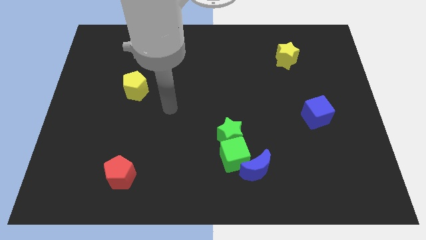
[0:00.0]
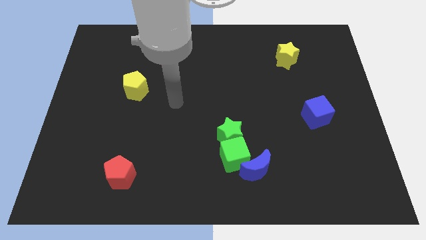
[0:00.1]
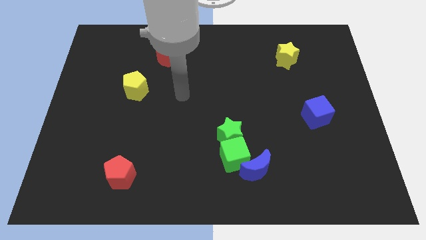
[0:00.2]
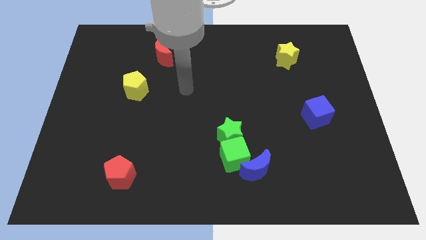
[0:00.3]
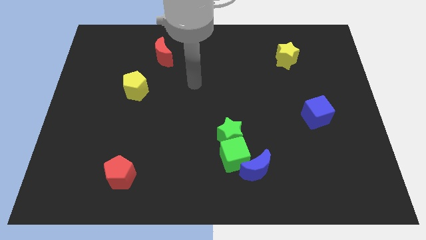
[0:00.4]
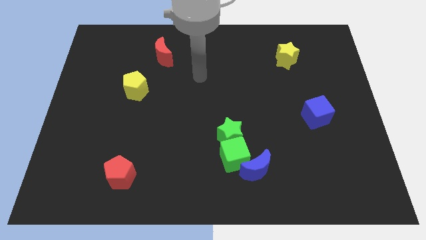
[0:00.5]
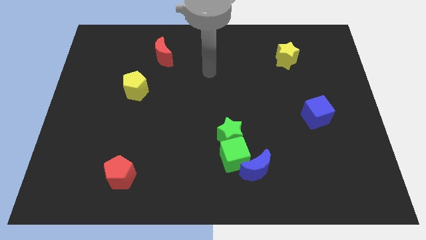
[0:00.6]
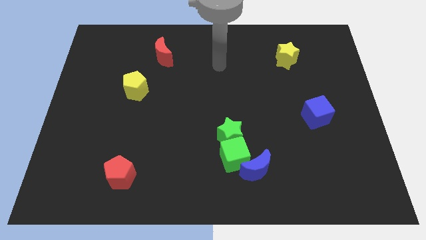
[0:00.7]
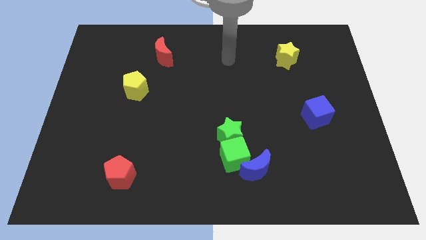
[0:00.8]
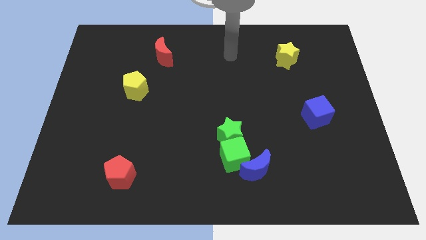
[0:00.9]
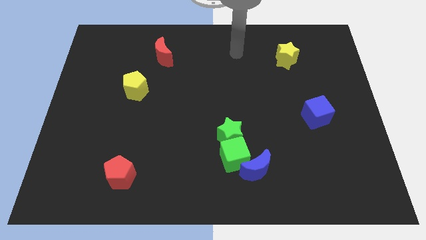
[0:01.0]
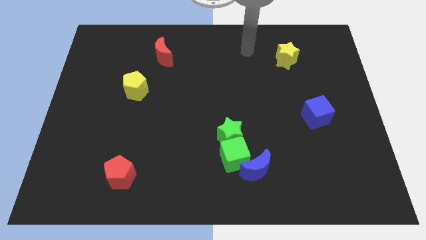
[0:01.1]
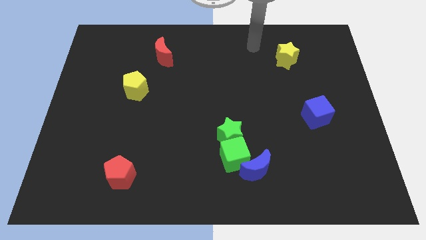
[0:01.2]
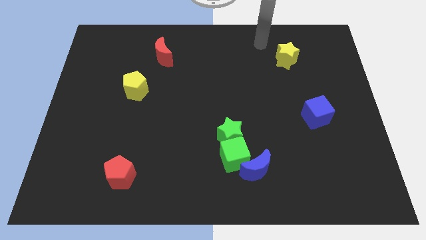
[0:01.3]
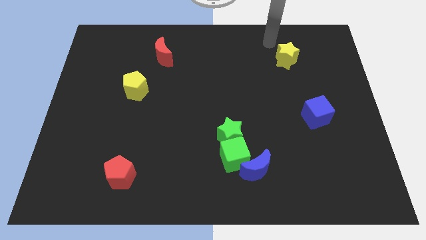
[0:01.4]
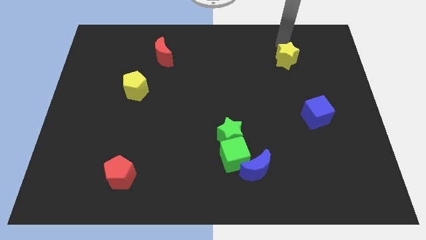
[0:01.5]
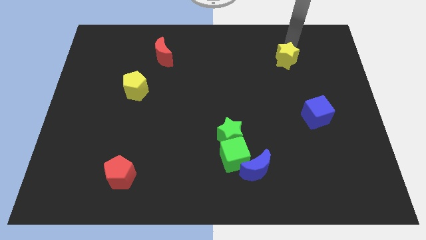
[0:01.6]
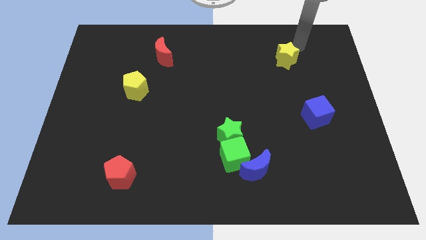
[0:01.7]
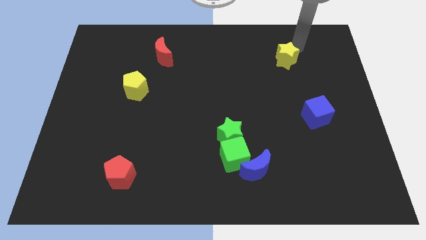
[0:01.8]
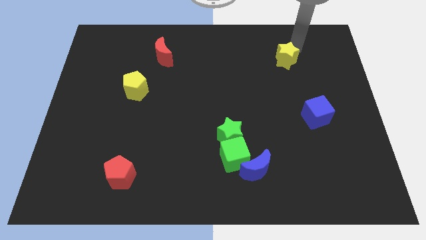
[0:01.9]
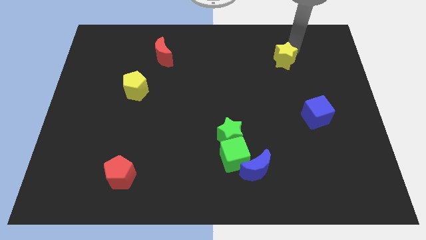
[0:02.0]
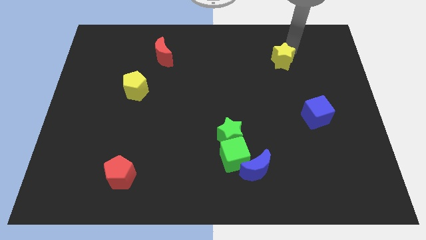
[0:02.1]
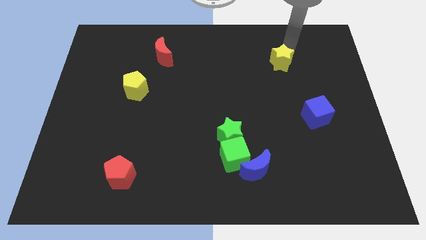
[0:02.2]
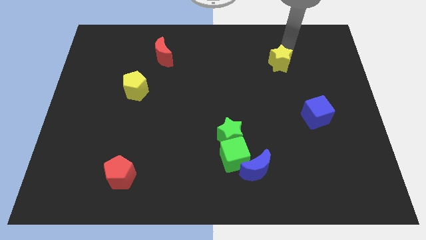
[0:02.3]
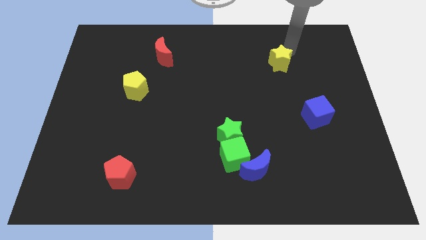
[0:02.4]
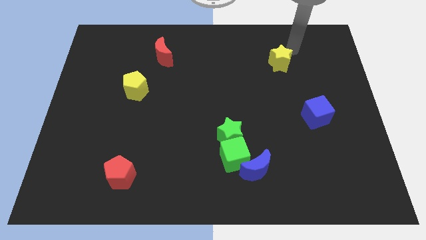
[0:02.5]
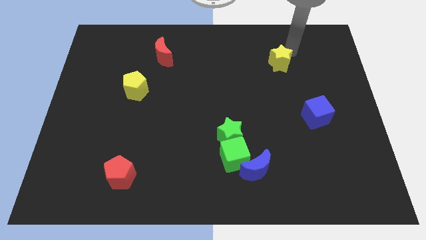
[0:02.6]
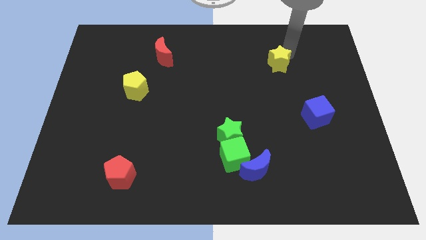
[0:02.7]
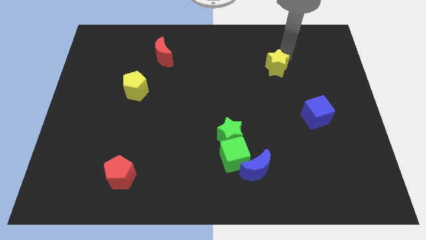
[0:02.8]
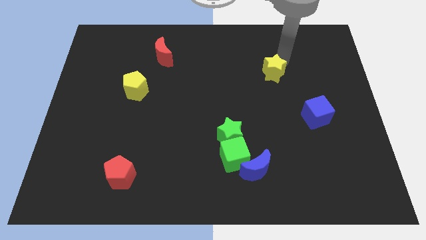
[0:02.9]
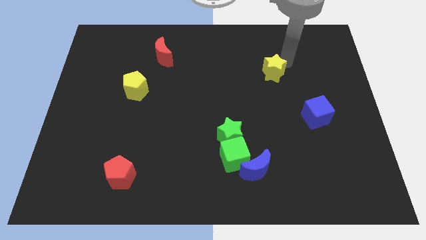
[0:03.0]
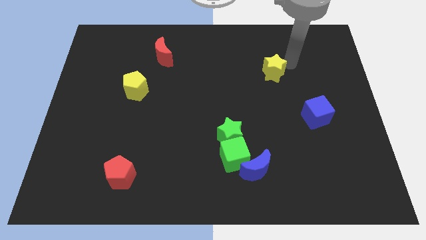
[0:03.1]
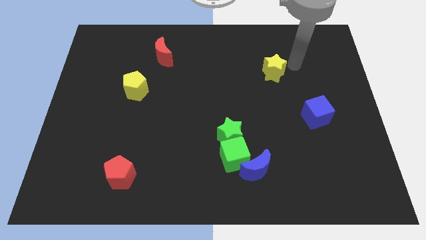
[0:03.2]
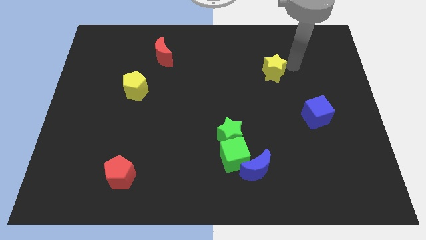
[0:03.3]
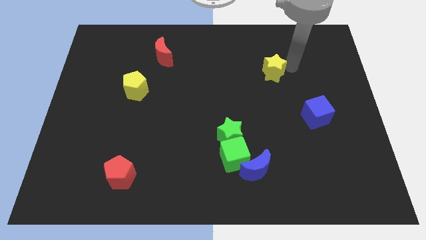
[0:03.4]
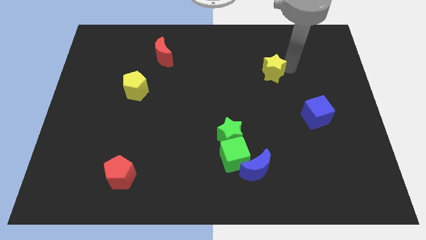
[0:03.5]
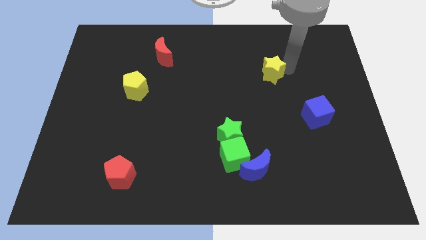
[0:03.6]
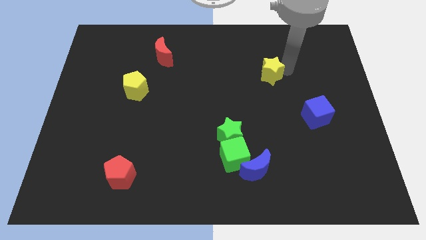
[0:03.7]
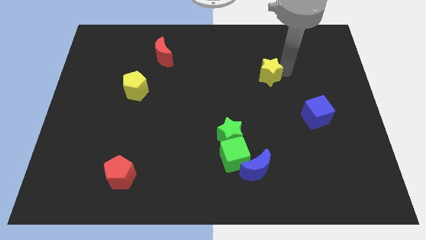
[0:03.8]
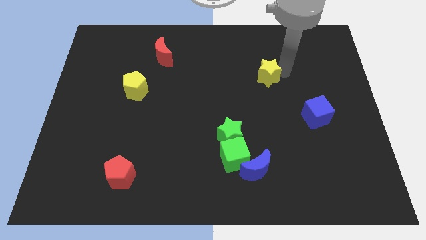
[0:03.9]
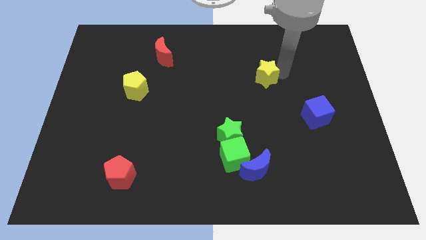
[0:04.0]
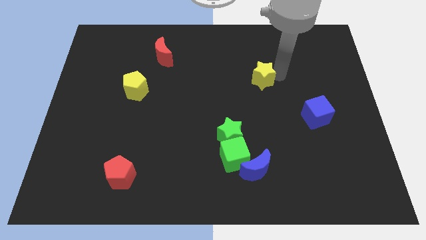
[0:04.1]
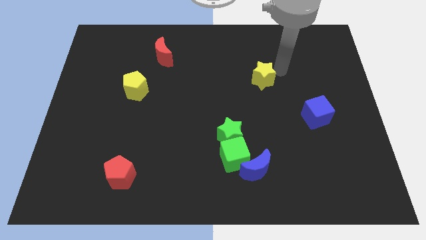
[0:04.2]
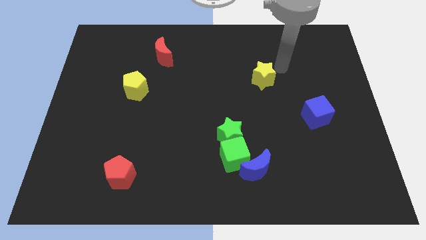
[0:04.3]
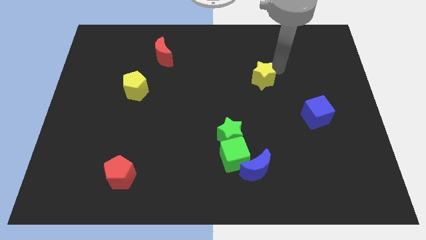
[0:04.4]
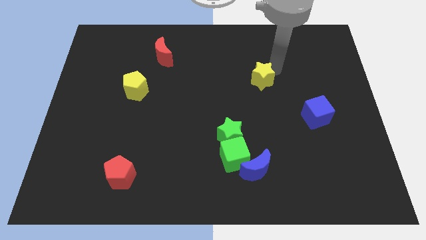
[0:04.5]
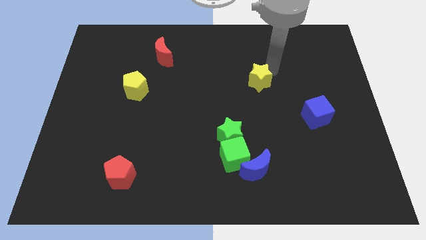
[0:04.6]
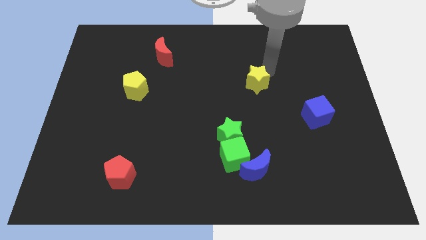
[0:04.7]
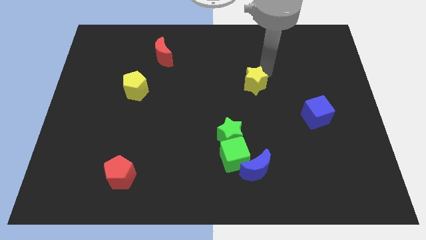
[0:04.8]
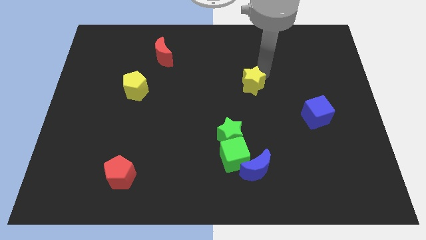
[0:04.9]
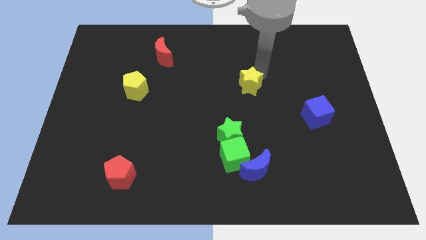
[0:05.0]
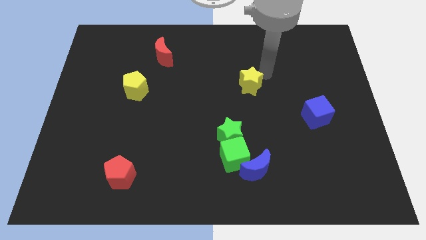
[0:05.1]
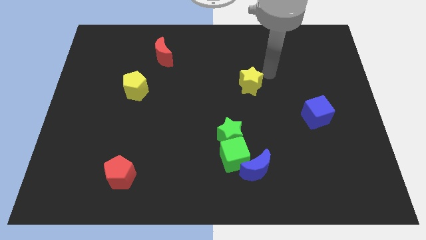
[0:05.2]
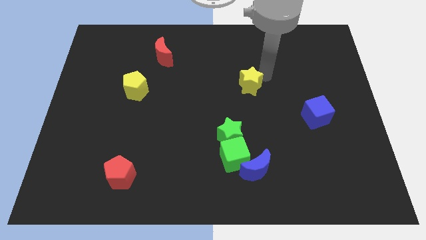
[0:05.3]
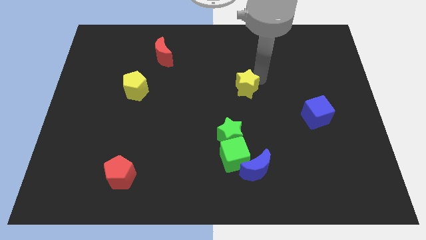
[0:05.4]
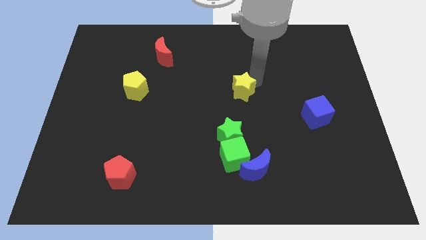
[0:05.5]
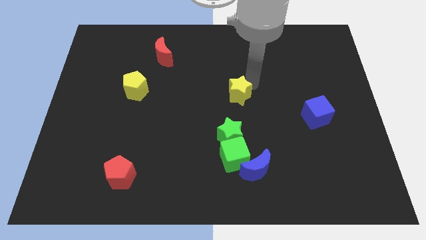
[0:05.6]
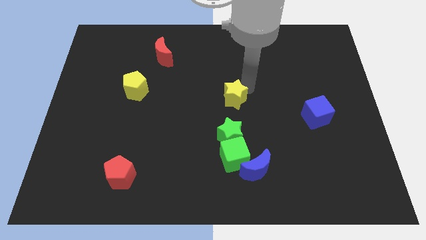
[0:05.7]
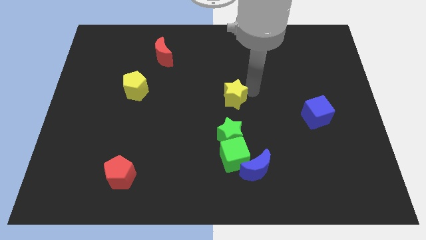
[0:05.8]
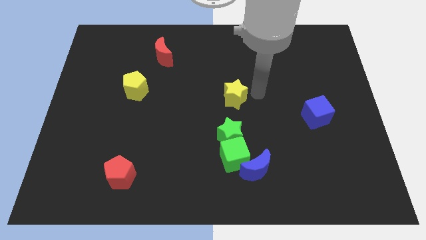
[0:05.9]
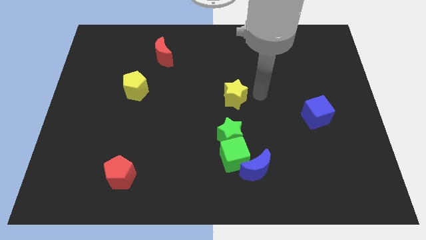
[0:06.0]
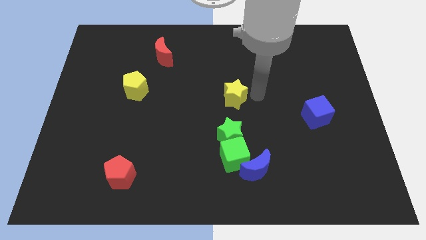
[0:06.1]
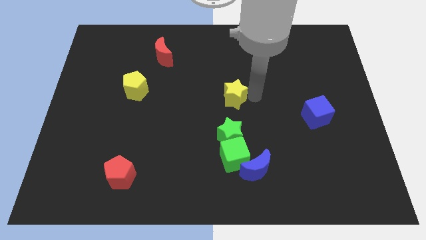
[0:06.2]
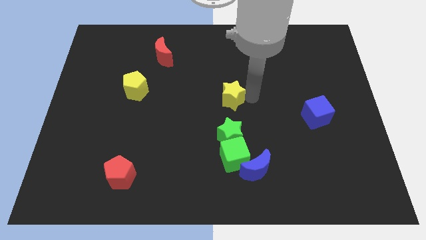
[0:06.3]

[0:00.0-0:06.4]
push the yellow star downwards and left diagonally

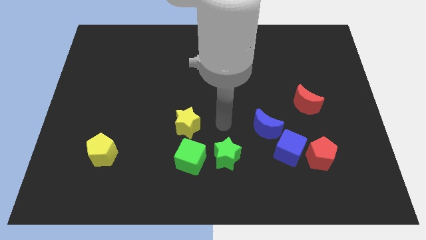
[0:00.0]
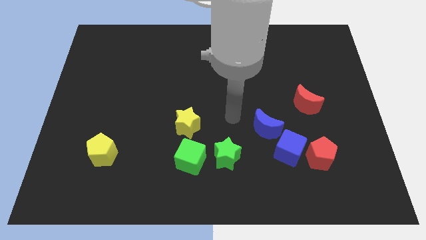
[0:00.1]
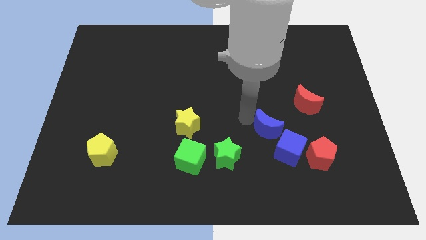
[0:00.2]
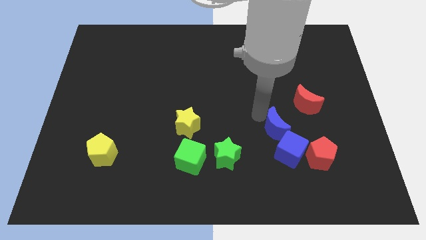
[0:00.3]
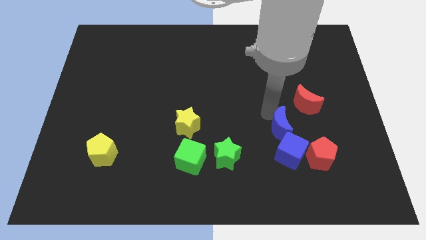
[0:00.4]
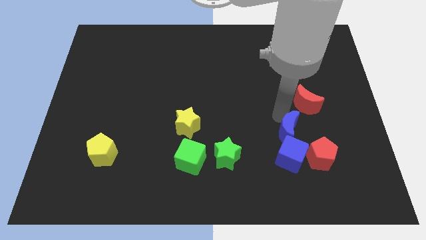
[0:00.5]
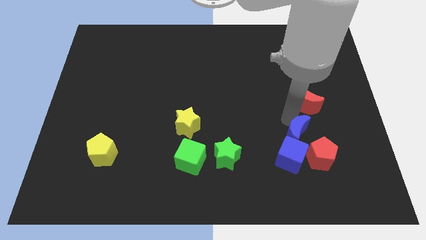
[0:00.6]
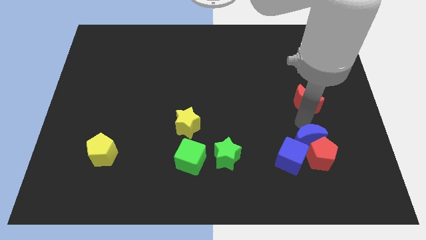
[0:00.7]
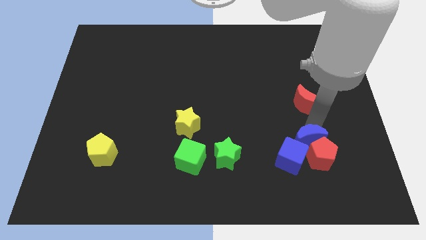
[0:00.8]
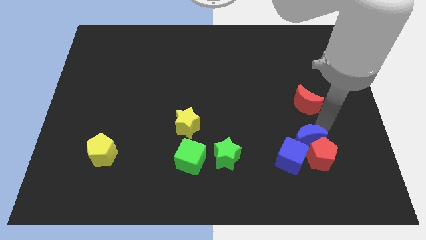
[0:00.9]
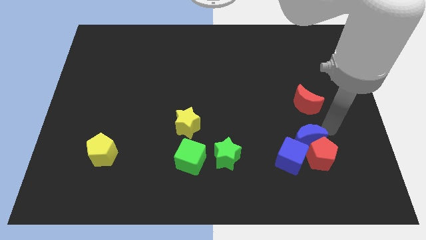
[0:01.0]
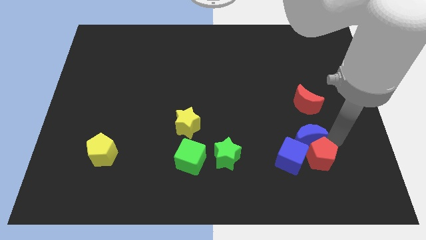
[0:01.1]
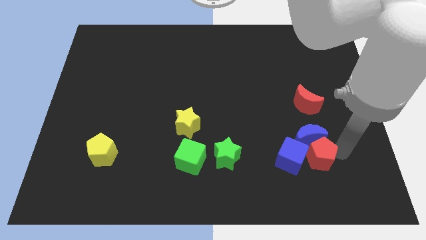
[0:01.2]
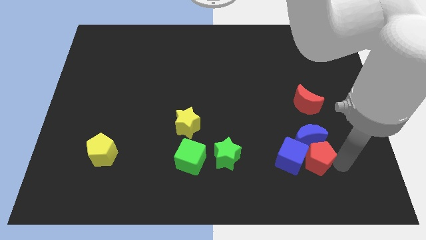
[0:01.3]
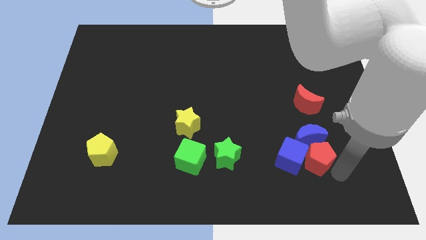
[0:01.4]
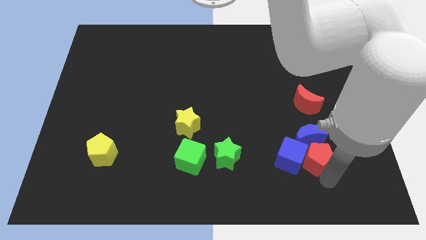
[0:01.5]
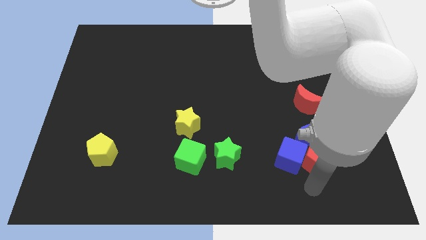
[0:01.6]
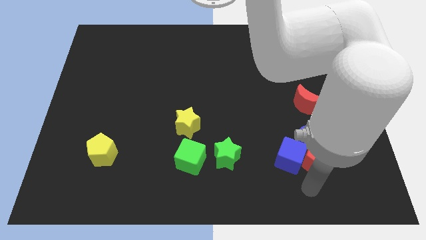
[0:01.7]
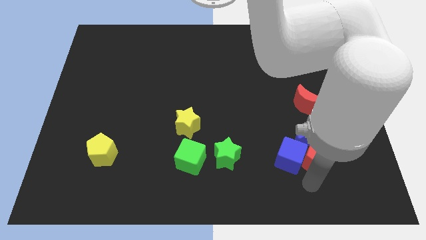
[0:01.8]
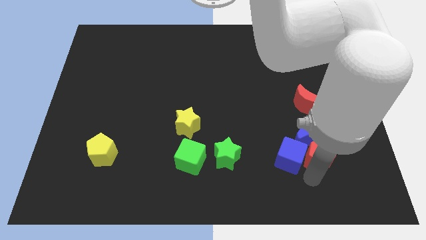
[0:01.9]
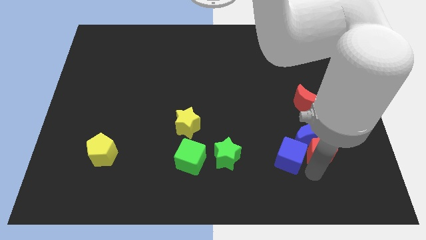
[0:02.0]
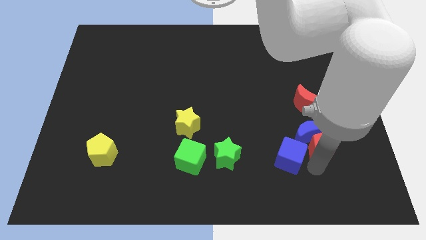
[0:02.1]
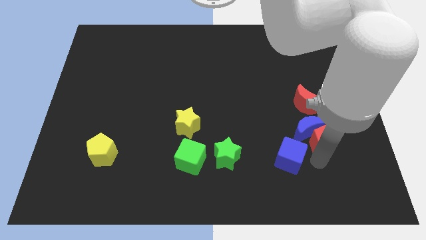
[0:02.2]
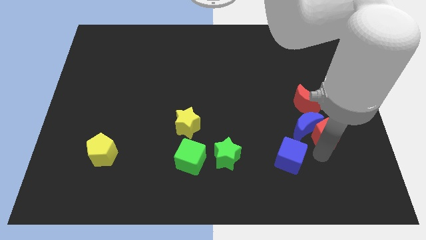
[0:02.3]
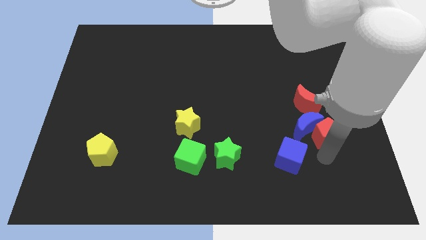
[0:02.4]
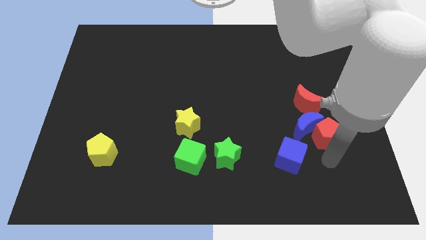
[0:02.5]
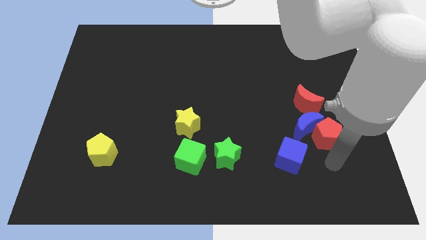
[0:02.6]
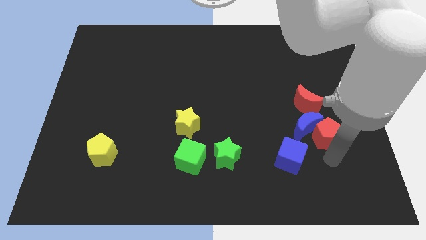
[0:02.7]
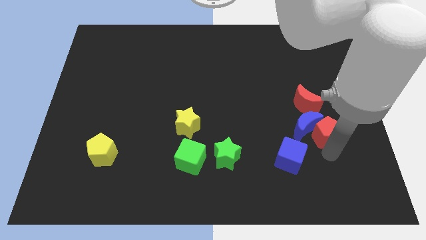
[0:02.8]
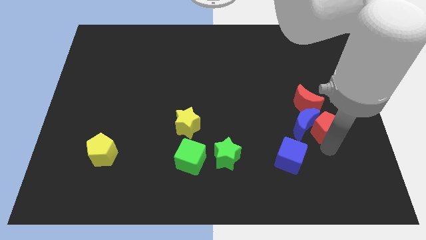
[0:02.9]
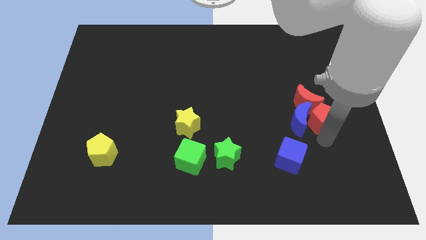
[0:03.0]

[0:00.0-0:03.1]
slide the red pentagon upwards a bit
